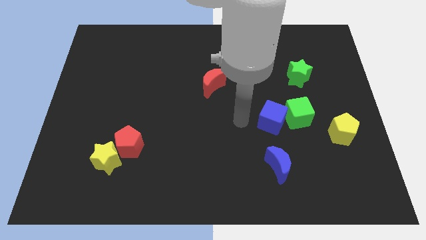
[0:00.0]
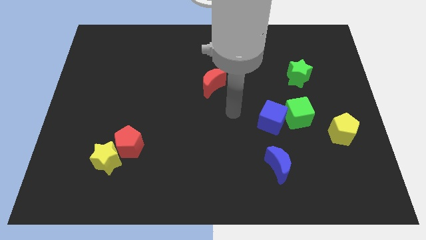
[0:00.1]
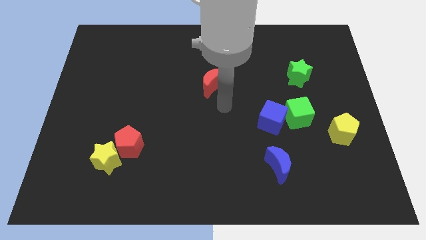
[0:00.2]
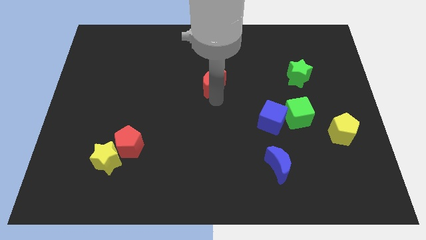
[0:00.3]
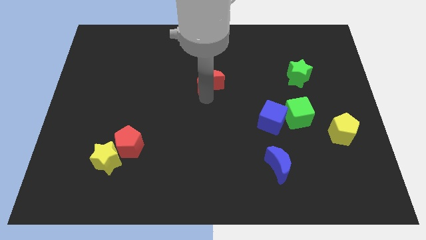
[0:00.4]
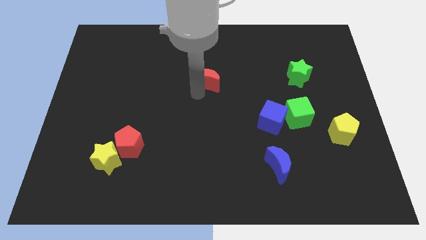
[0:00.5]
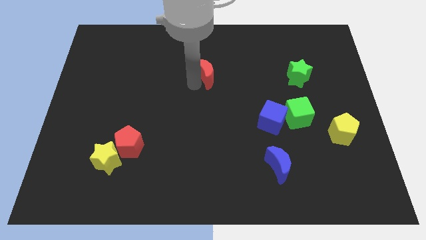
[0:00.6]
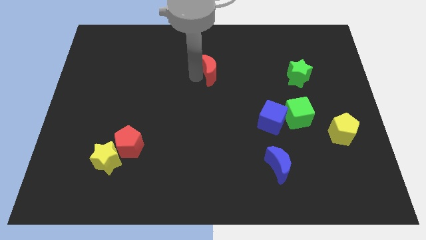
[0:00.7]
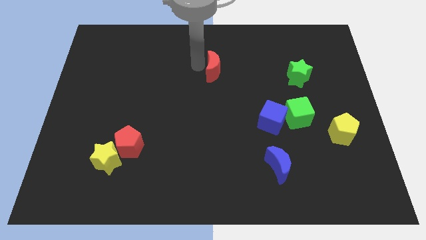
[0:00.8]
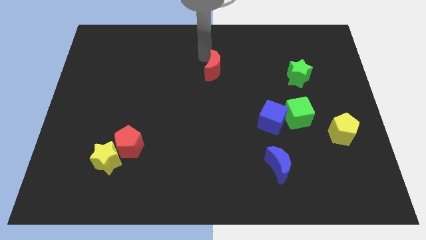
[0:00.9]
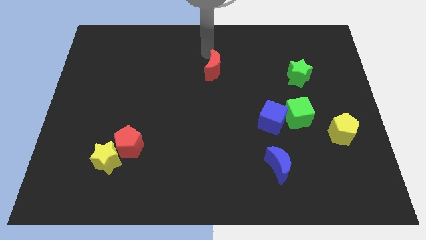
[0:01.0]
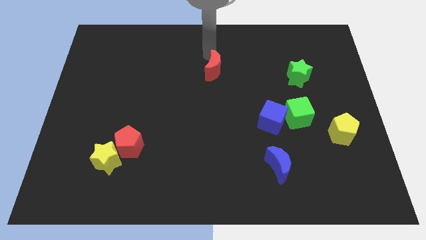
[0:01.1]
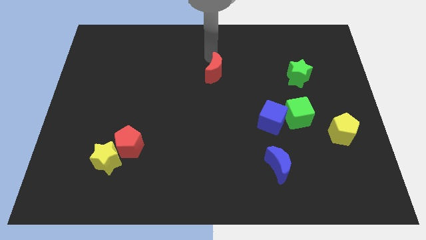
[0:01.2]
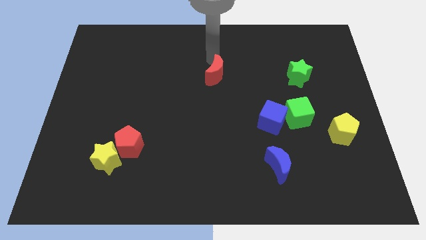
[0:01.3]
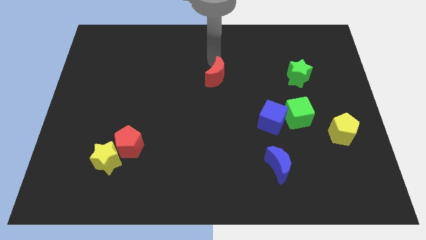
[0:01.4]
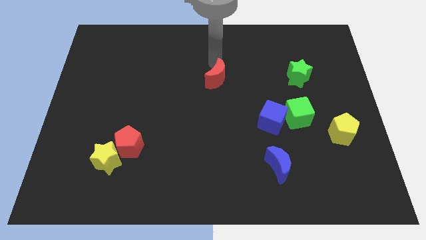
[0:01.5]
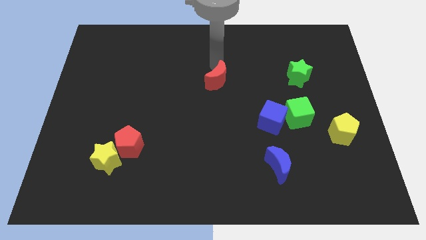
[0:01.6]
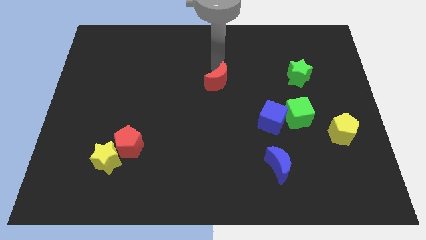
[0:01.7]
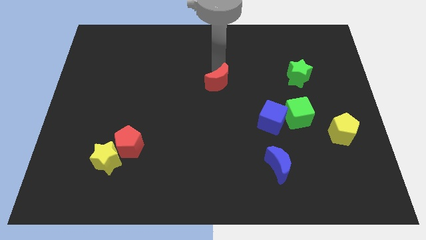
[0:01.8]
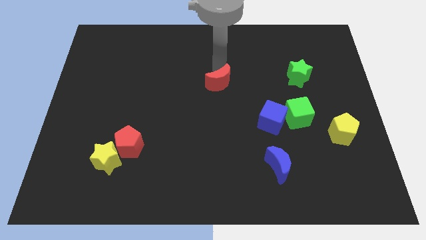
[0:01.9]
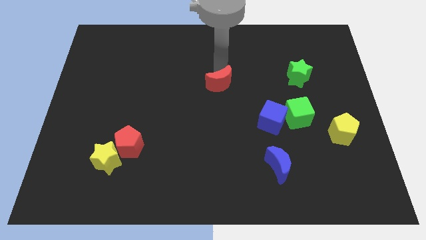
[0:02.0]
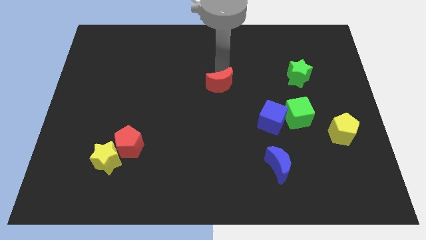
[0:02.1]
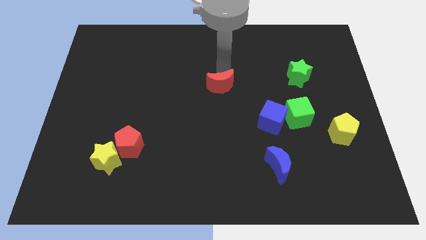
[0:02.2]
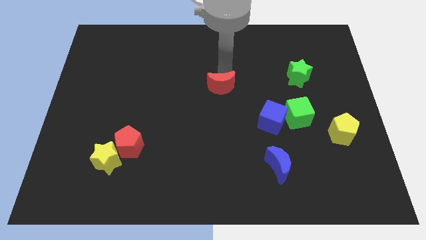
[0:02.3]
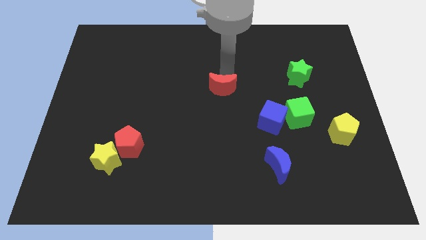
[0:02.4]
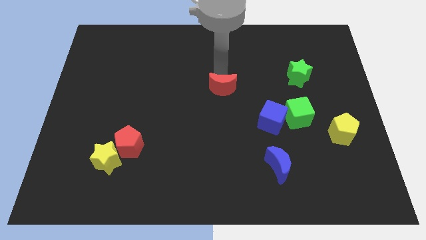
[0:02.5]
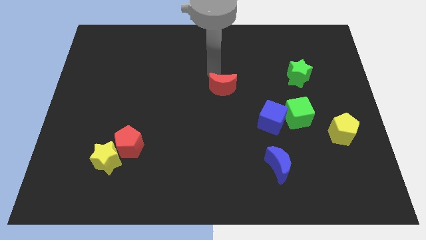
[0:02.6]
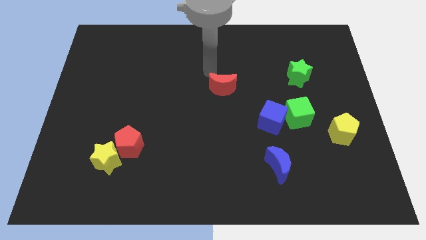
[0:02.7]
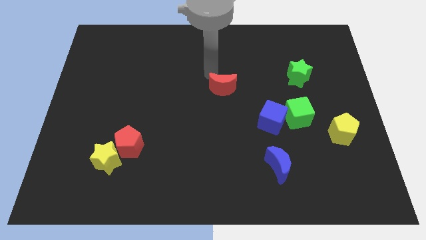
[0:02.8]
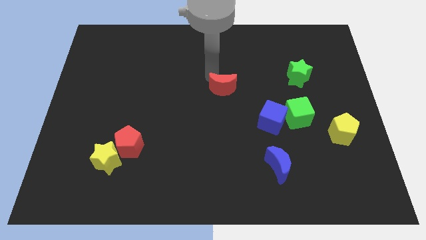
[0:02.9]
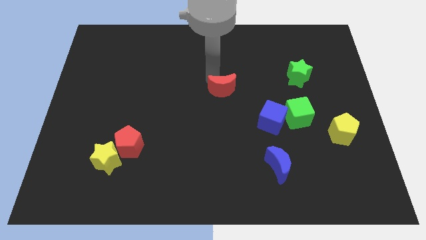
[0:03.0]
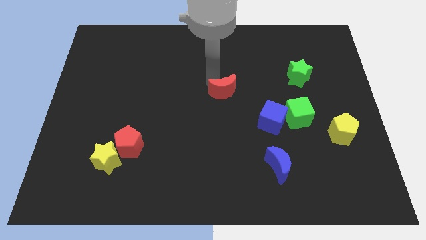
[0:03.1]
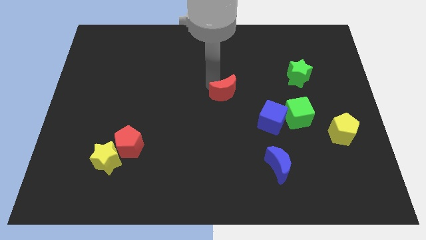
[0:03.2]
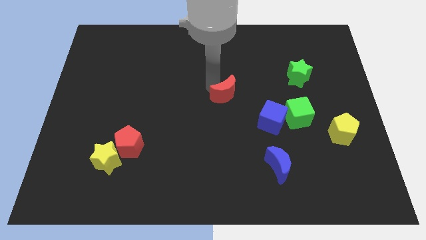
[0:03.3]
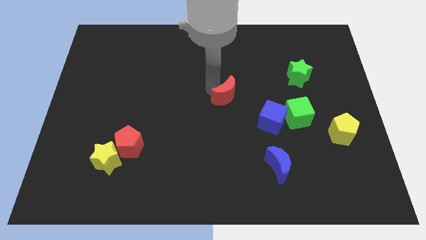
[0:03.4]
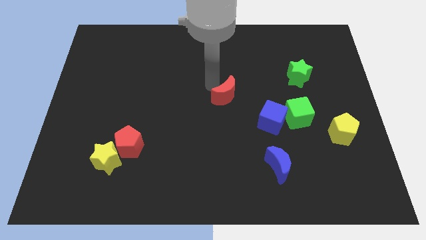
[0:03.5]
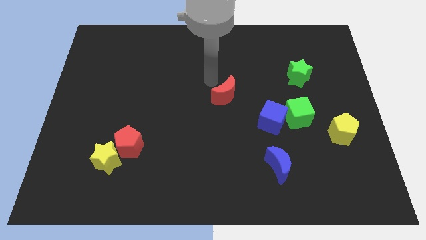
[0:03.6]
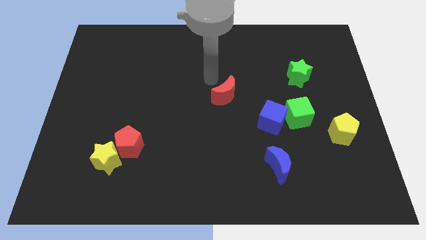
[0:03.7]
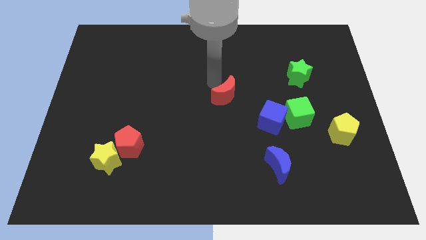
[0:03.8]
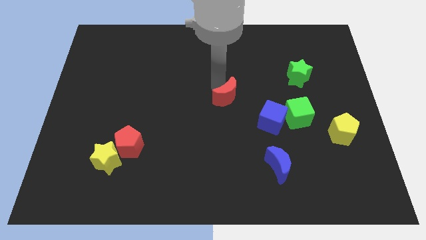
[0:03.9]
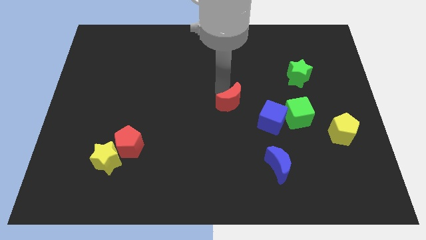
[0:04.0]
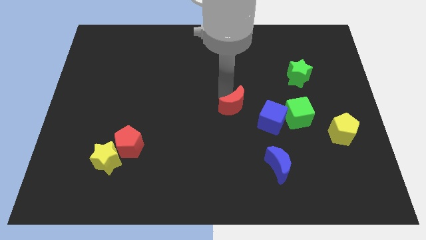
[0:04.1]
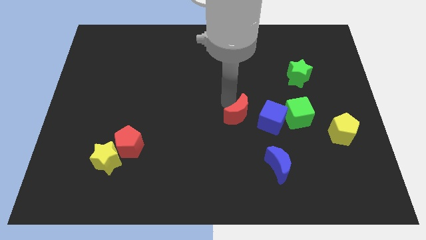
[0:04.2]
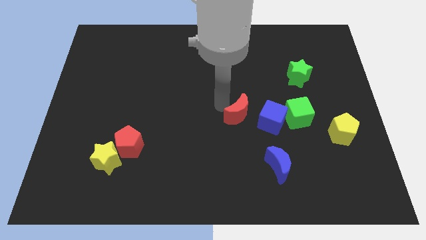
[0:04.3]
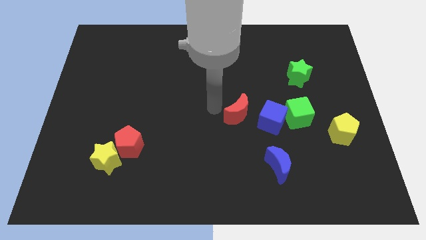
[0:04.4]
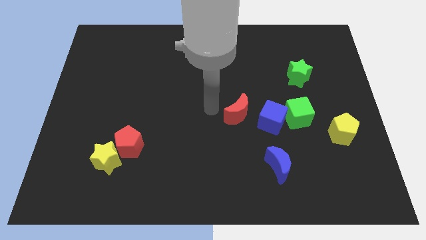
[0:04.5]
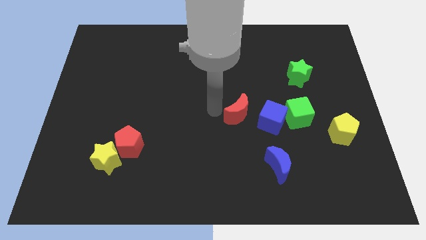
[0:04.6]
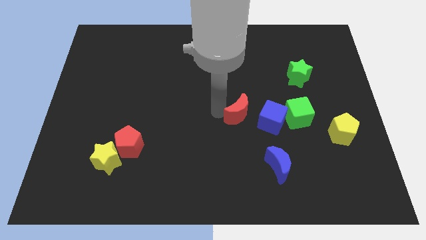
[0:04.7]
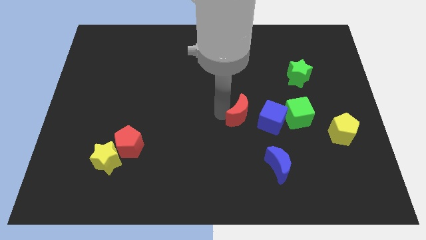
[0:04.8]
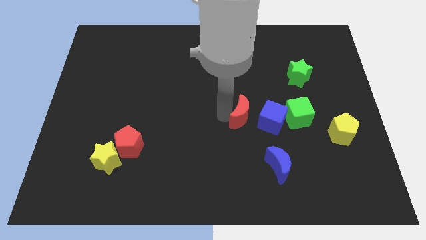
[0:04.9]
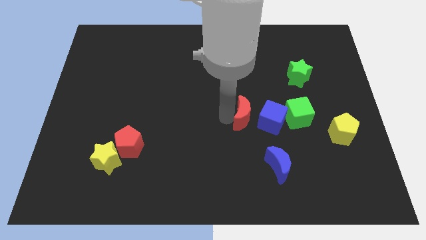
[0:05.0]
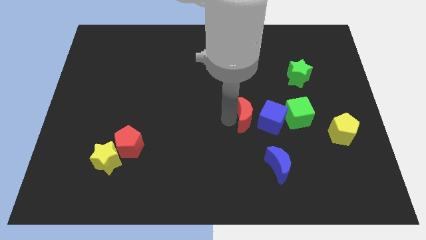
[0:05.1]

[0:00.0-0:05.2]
move the red moon close to the blue cube

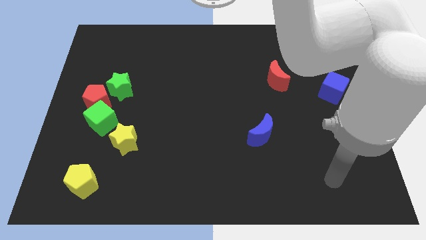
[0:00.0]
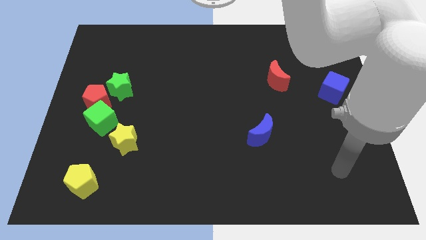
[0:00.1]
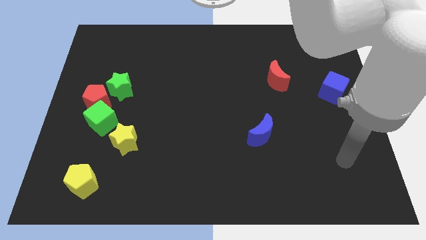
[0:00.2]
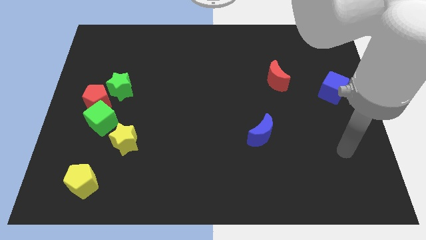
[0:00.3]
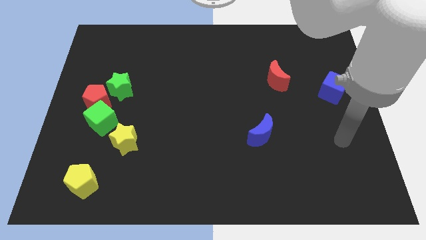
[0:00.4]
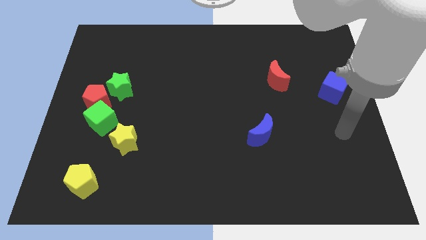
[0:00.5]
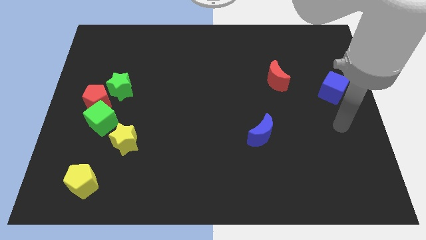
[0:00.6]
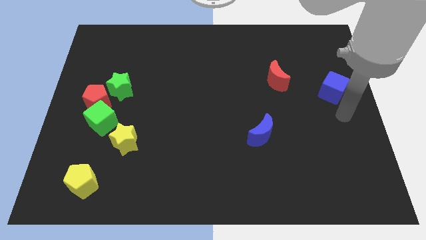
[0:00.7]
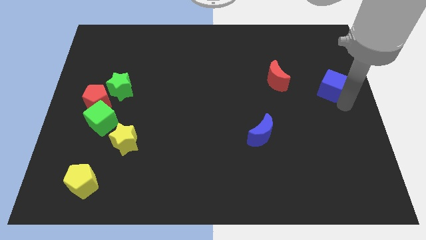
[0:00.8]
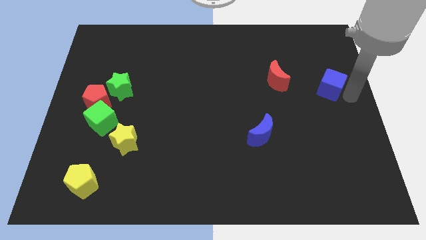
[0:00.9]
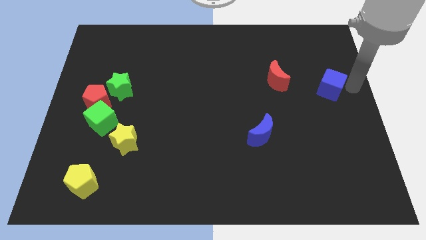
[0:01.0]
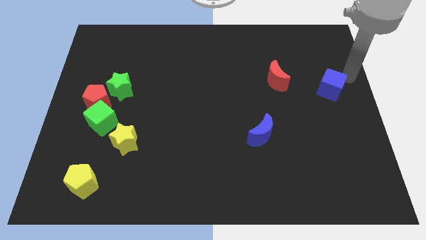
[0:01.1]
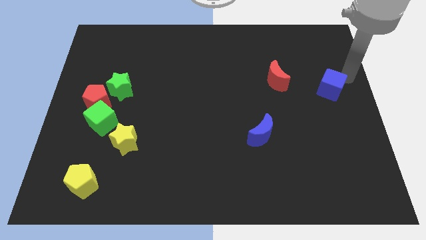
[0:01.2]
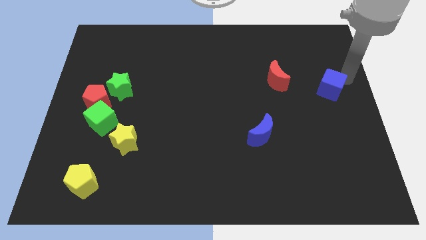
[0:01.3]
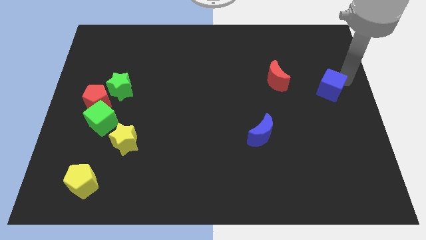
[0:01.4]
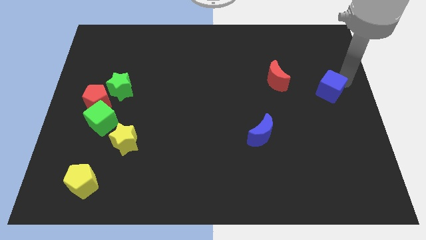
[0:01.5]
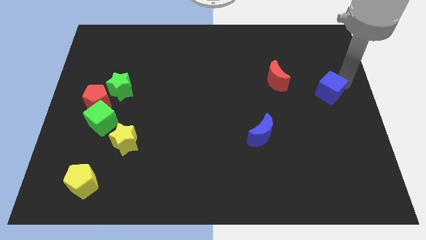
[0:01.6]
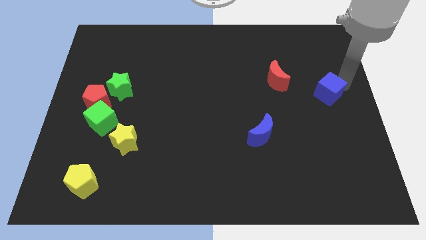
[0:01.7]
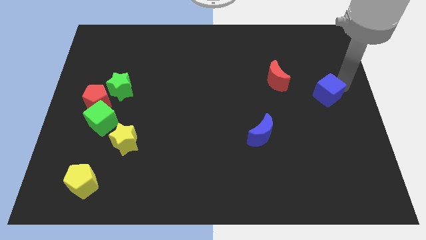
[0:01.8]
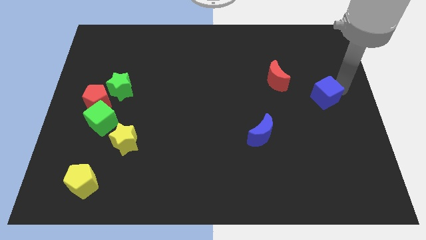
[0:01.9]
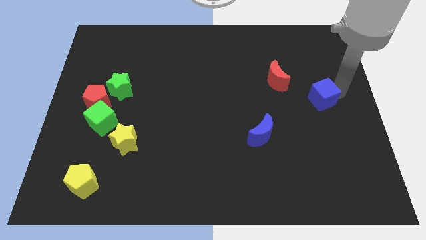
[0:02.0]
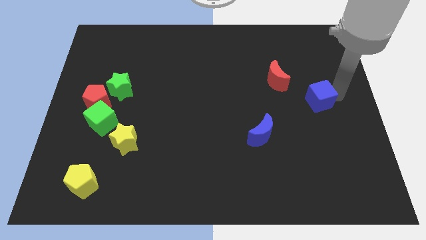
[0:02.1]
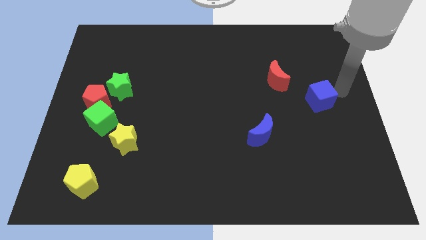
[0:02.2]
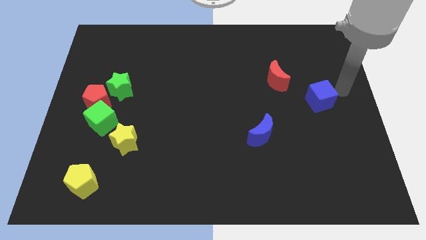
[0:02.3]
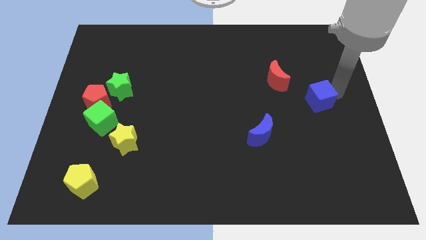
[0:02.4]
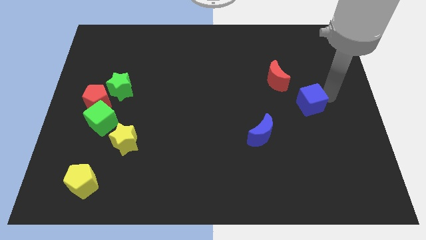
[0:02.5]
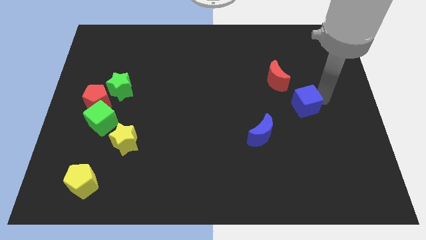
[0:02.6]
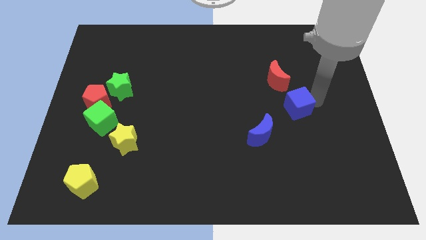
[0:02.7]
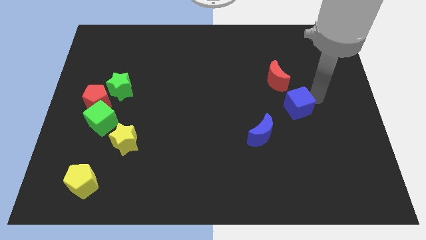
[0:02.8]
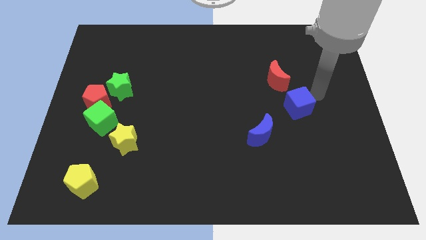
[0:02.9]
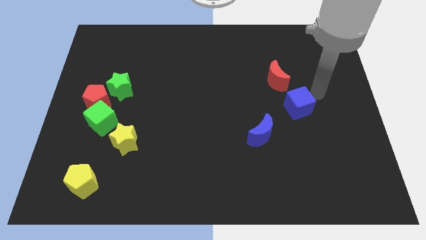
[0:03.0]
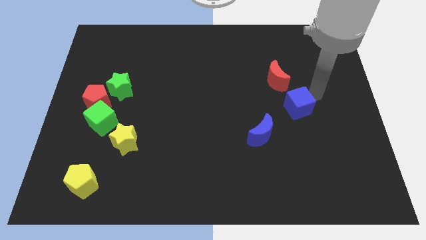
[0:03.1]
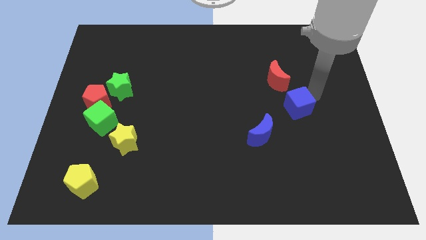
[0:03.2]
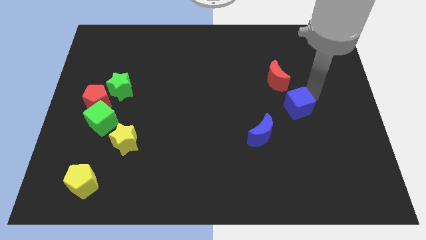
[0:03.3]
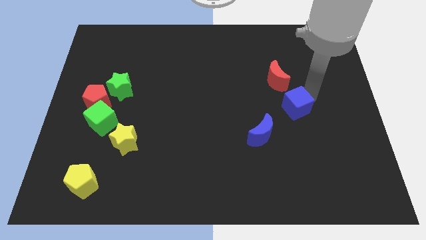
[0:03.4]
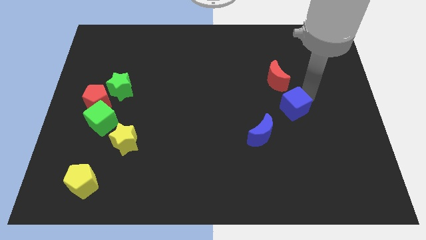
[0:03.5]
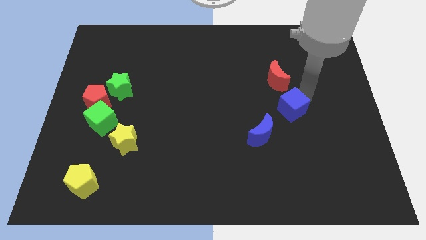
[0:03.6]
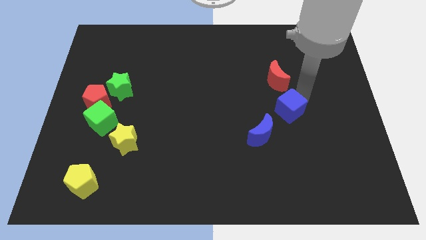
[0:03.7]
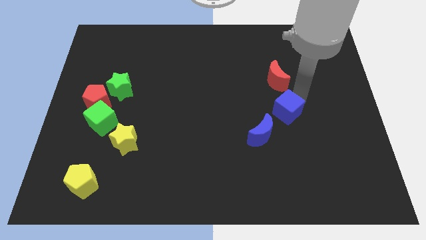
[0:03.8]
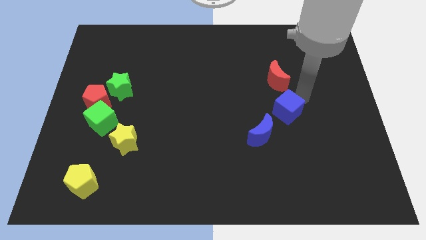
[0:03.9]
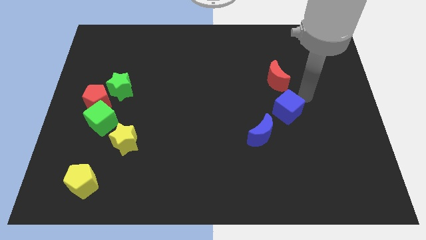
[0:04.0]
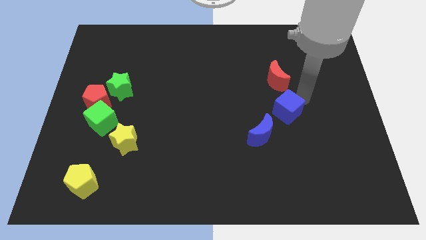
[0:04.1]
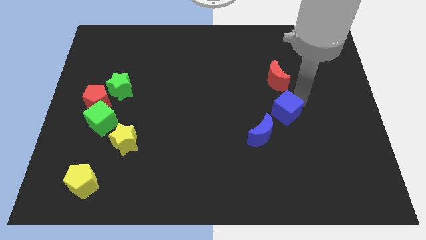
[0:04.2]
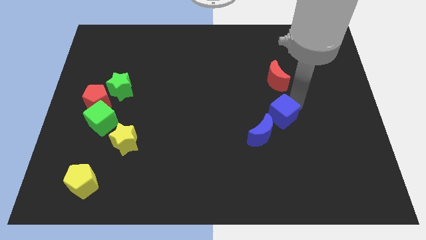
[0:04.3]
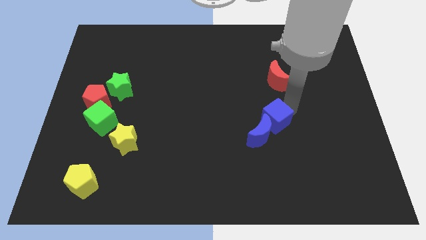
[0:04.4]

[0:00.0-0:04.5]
push the blue cube next to the blue moon
